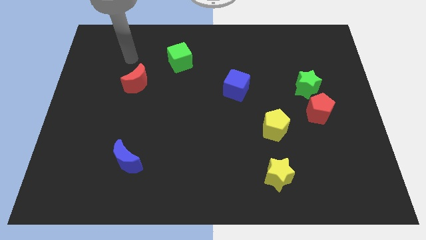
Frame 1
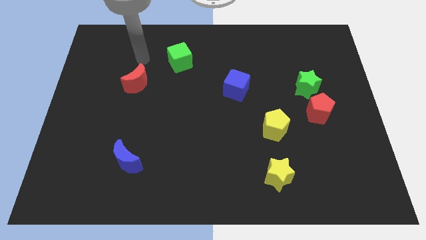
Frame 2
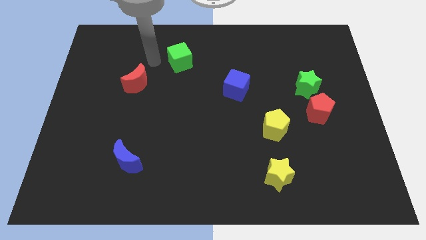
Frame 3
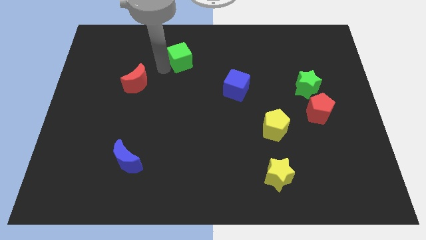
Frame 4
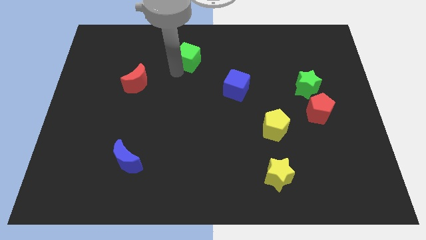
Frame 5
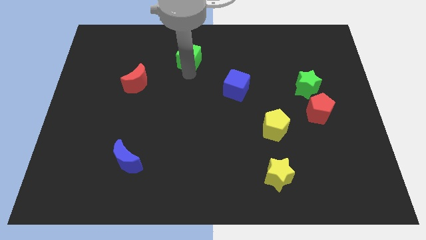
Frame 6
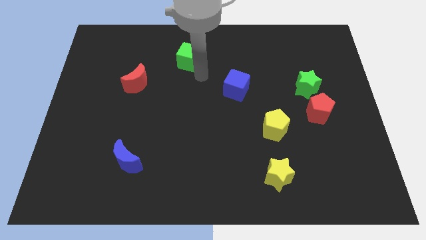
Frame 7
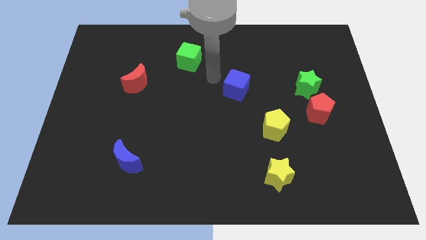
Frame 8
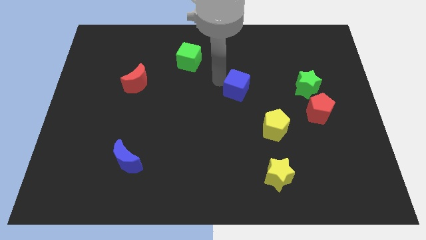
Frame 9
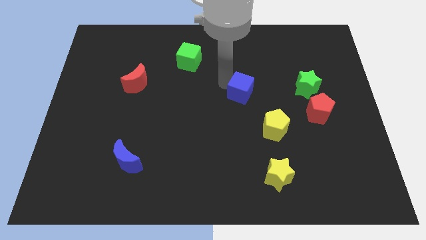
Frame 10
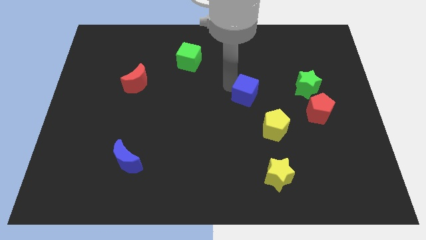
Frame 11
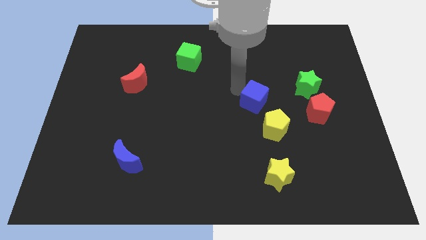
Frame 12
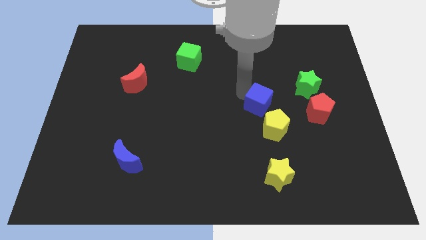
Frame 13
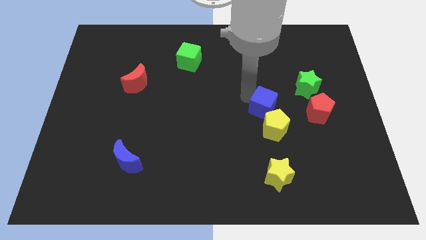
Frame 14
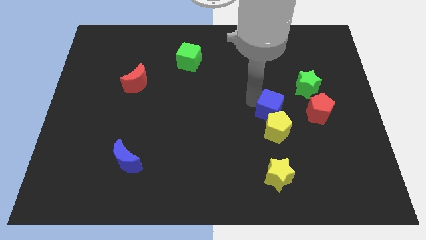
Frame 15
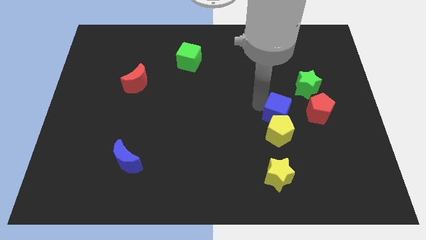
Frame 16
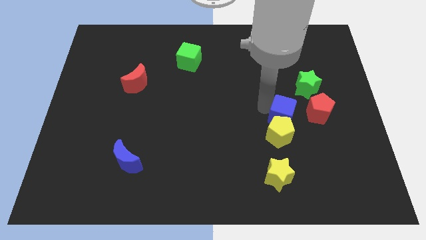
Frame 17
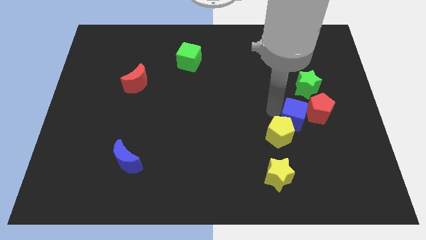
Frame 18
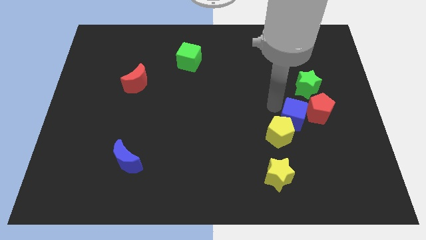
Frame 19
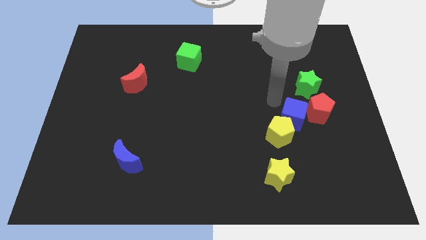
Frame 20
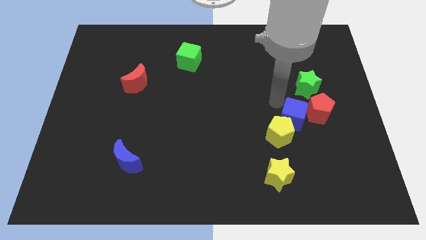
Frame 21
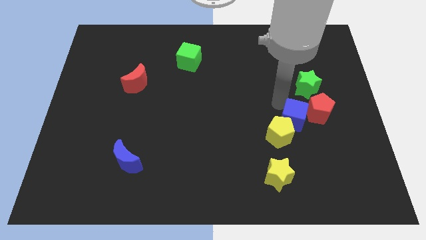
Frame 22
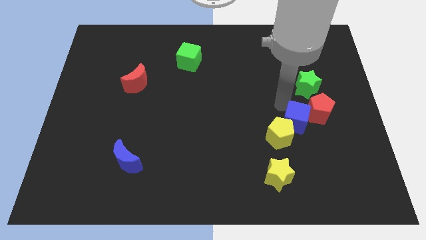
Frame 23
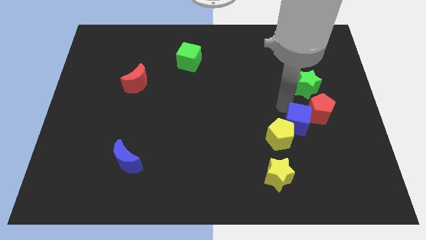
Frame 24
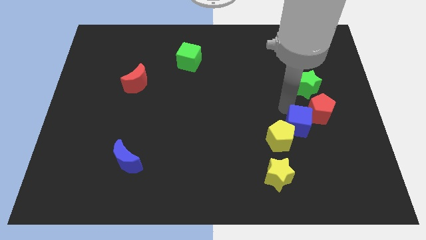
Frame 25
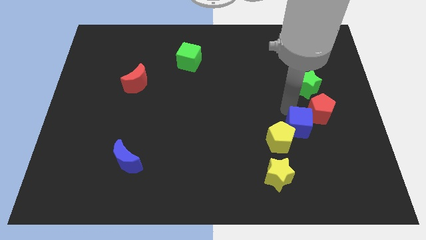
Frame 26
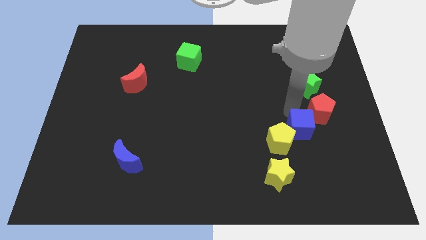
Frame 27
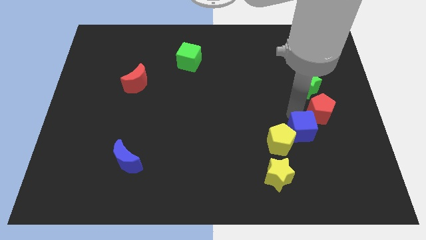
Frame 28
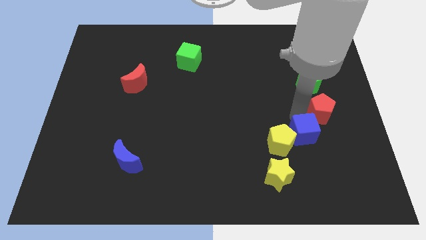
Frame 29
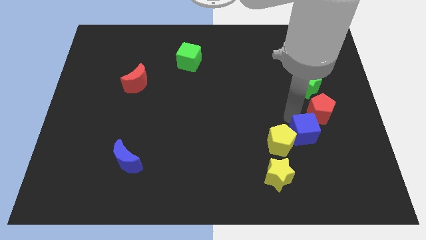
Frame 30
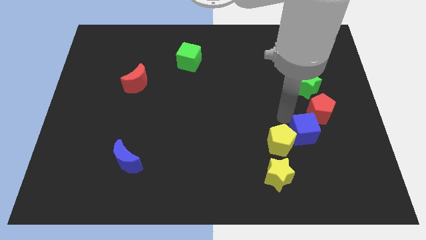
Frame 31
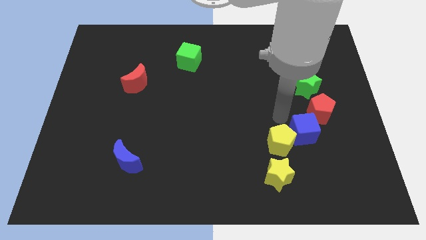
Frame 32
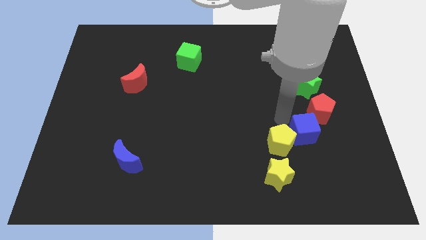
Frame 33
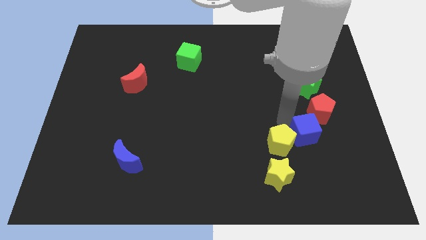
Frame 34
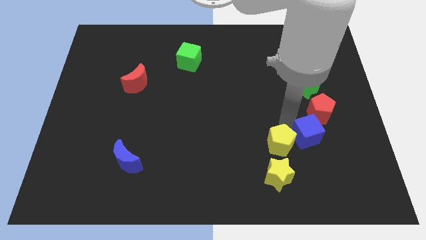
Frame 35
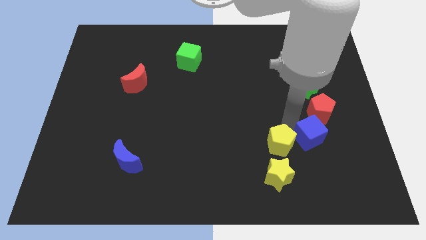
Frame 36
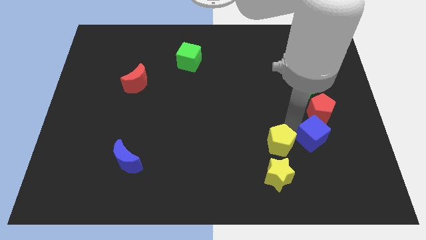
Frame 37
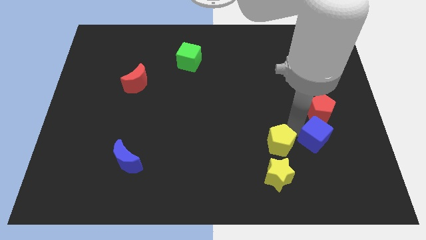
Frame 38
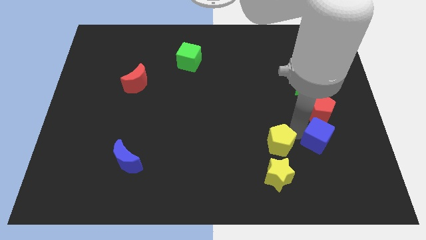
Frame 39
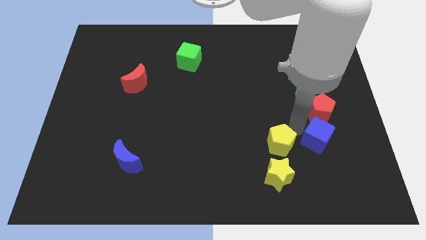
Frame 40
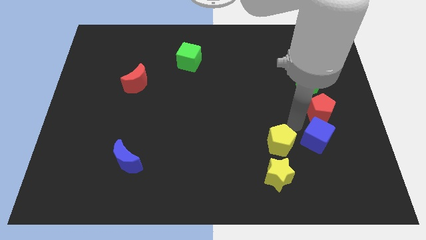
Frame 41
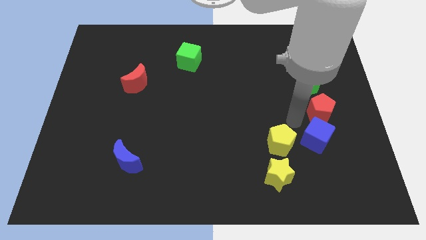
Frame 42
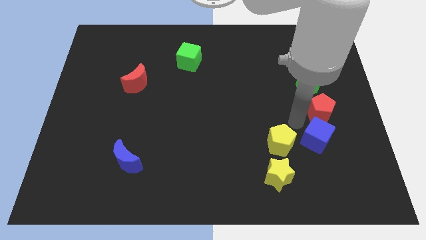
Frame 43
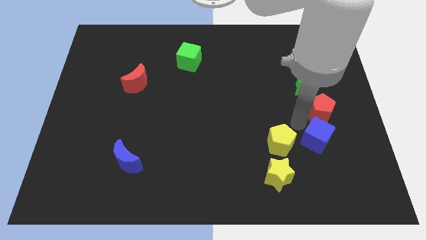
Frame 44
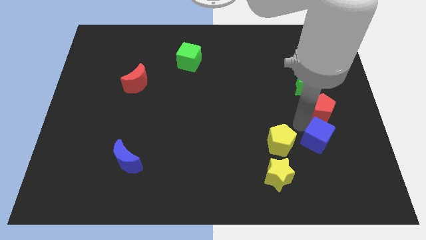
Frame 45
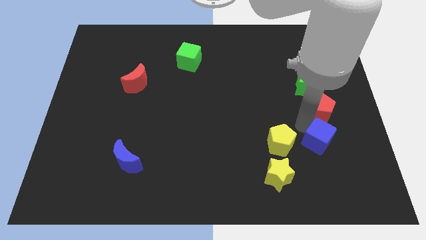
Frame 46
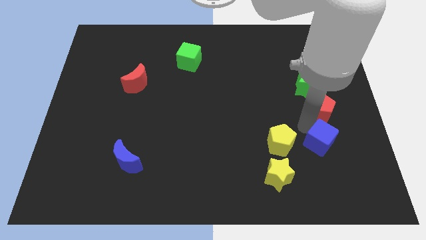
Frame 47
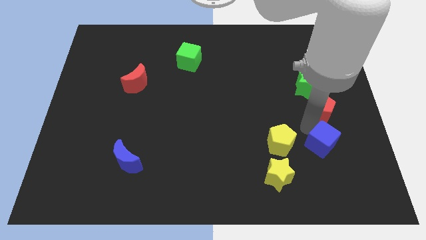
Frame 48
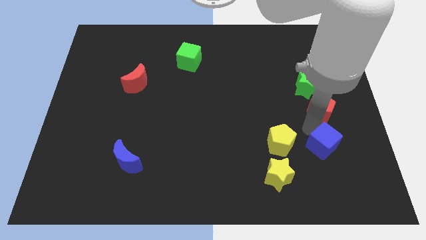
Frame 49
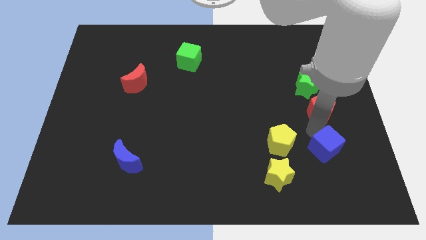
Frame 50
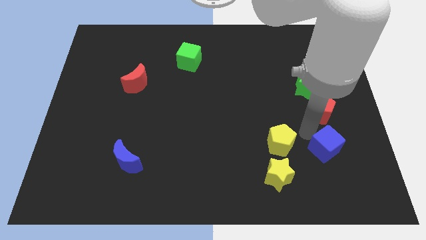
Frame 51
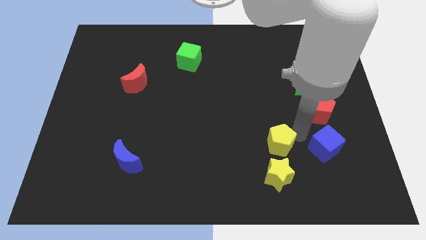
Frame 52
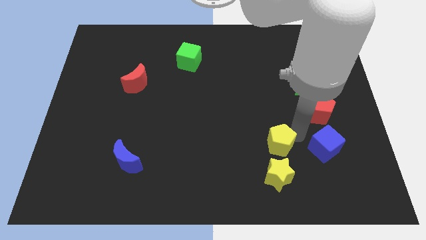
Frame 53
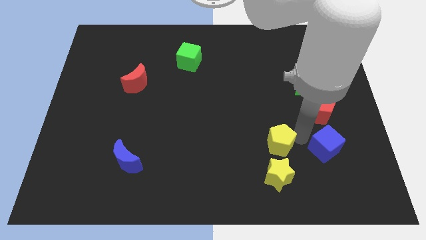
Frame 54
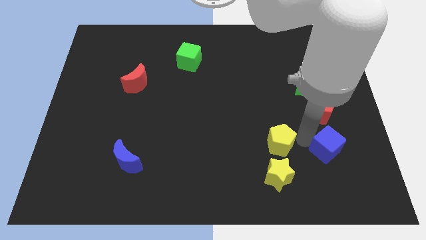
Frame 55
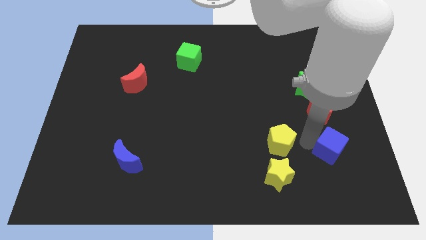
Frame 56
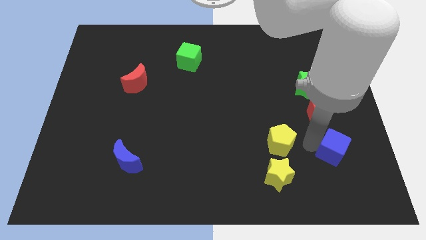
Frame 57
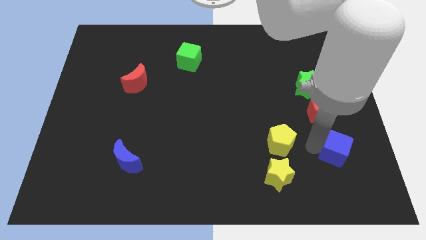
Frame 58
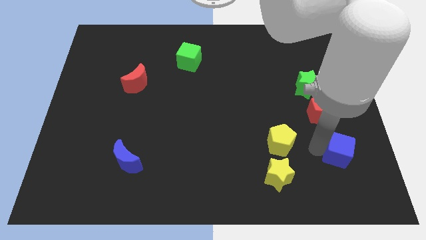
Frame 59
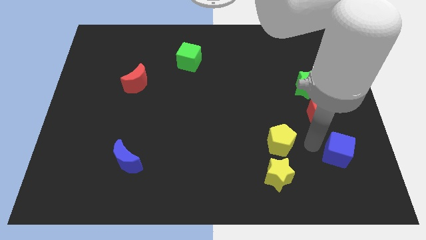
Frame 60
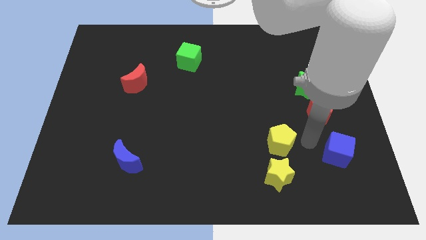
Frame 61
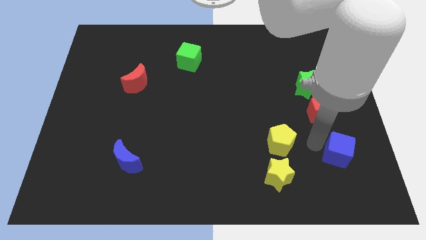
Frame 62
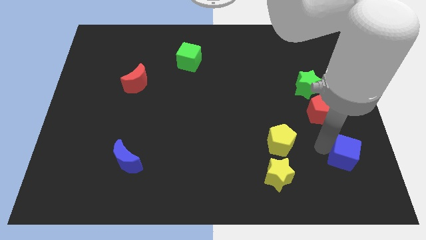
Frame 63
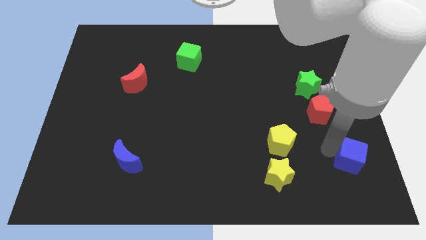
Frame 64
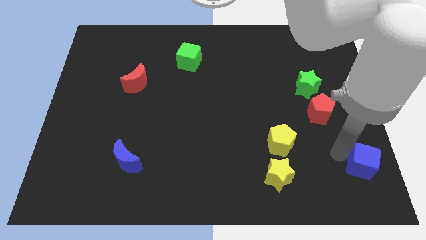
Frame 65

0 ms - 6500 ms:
move the blue cube to the bottom right
